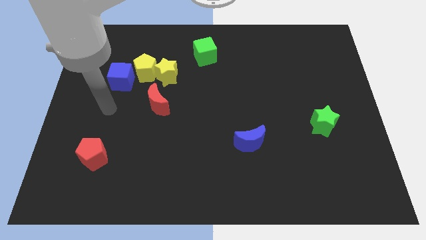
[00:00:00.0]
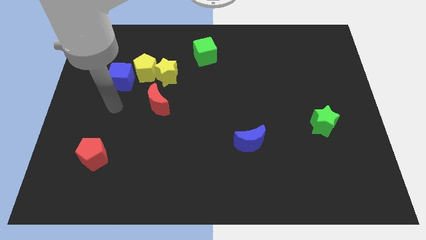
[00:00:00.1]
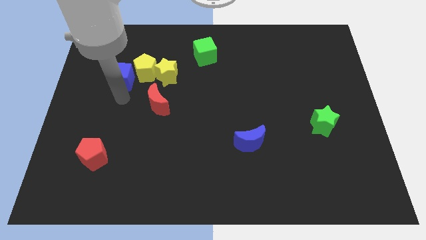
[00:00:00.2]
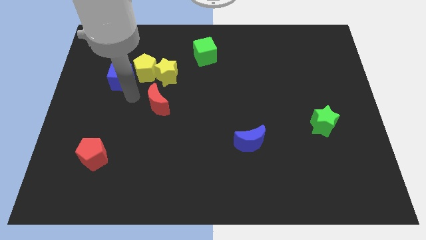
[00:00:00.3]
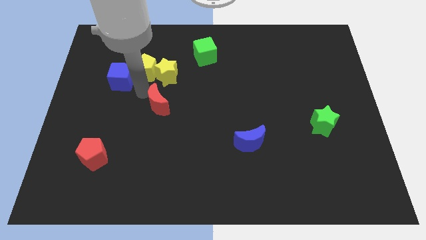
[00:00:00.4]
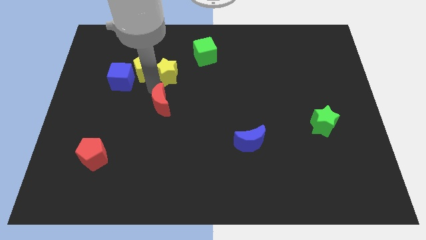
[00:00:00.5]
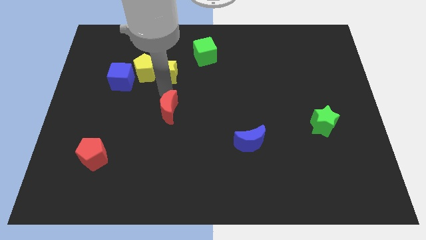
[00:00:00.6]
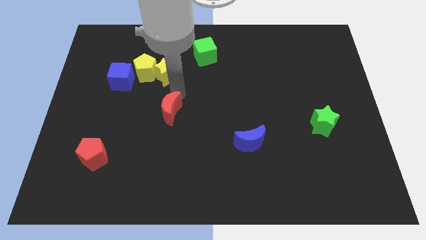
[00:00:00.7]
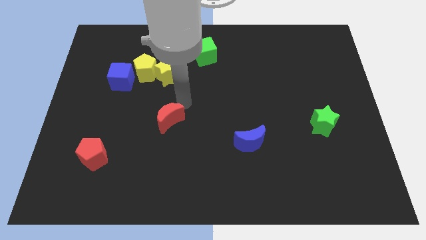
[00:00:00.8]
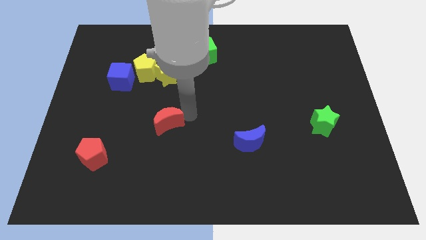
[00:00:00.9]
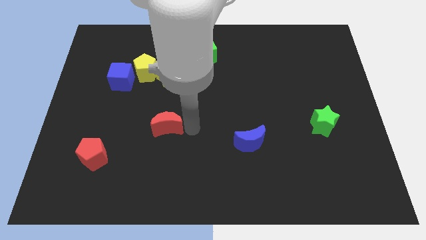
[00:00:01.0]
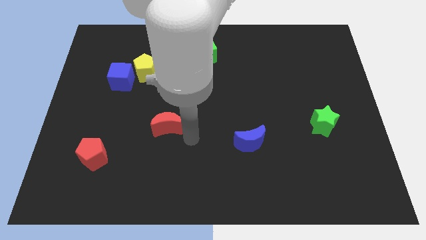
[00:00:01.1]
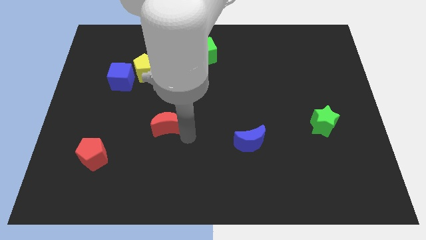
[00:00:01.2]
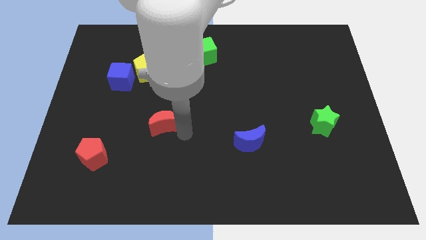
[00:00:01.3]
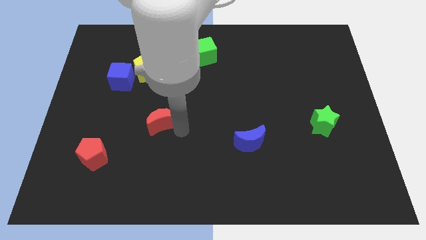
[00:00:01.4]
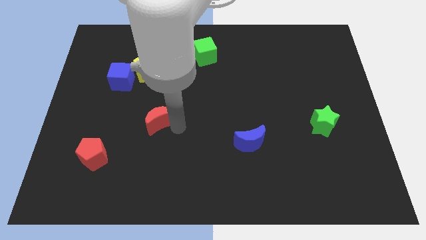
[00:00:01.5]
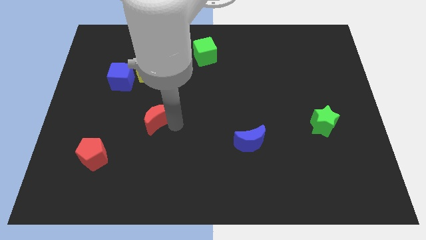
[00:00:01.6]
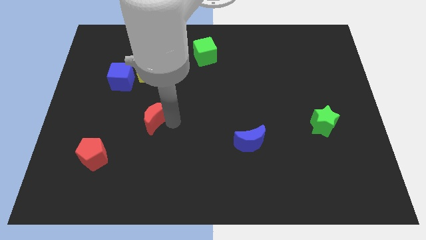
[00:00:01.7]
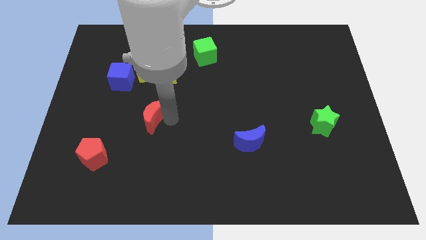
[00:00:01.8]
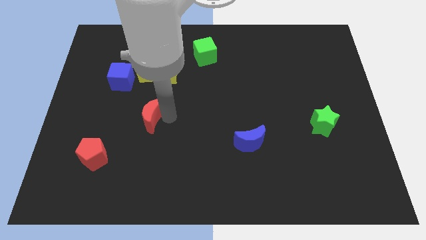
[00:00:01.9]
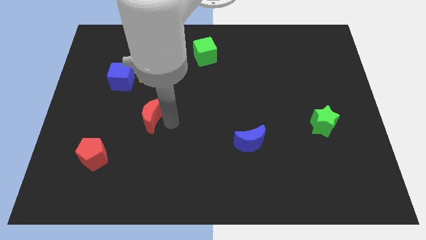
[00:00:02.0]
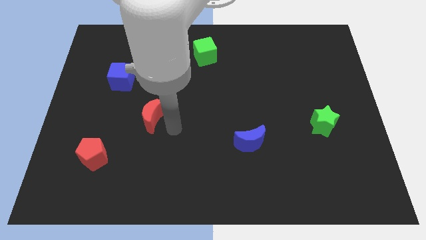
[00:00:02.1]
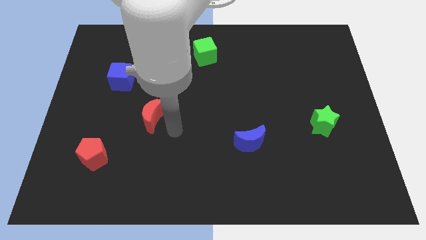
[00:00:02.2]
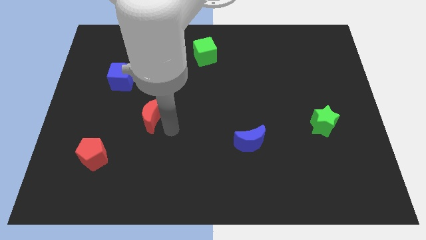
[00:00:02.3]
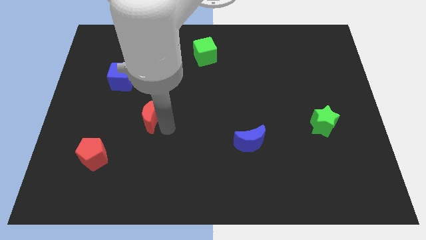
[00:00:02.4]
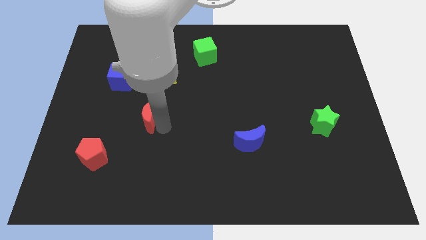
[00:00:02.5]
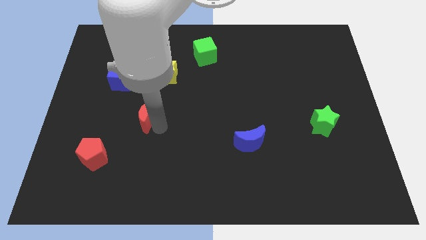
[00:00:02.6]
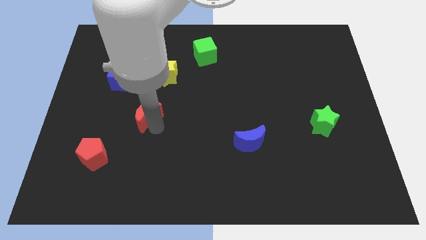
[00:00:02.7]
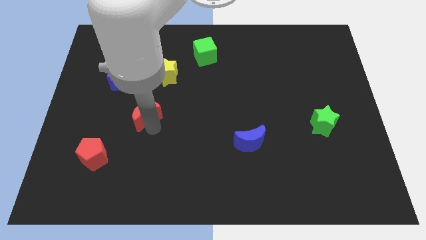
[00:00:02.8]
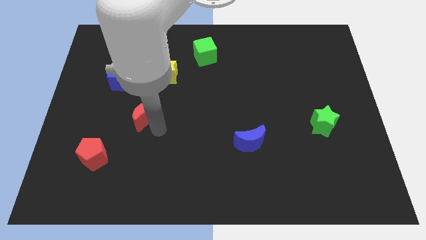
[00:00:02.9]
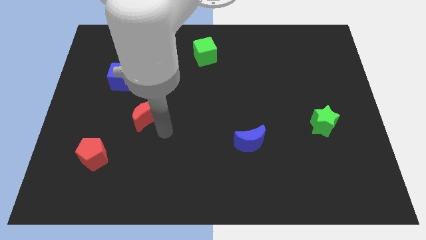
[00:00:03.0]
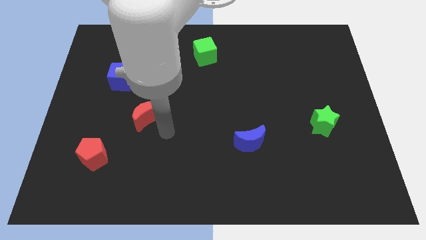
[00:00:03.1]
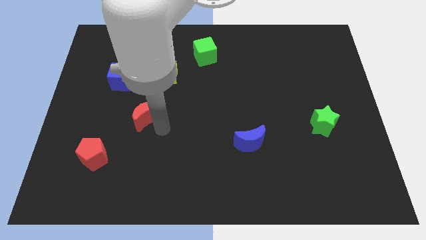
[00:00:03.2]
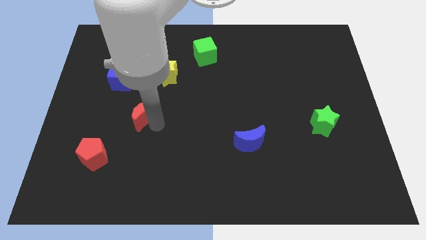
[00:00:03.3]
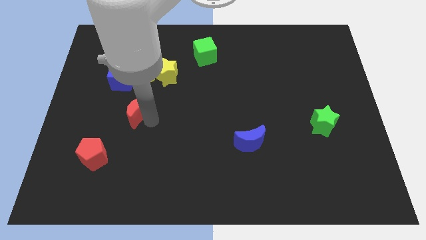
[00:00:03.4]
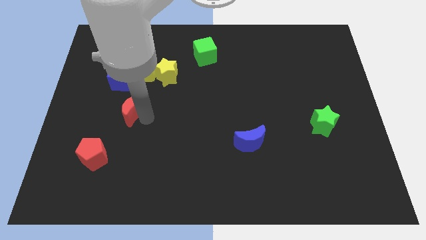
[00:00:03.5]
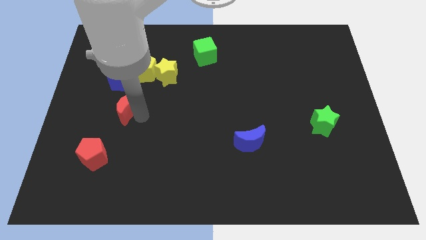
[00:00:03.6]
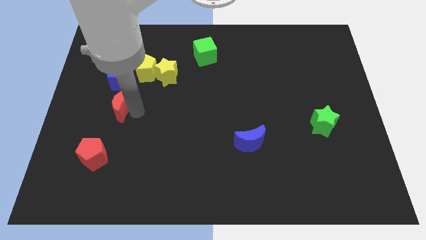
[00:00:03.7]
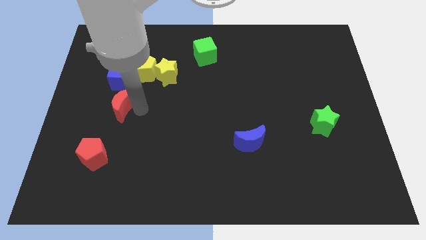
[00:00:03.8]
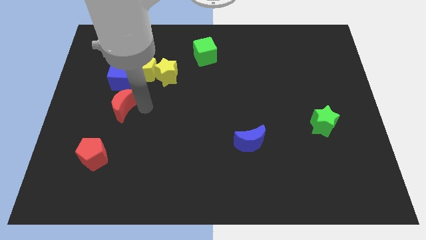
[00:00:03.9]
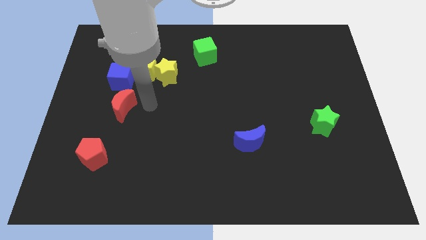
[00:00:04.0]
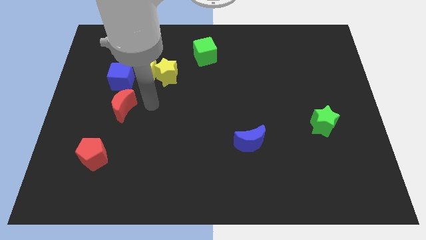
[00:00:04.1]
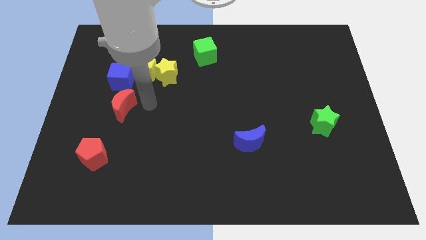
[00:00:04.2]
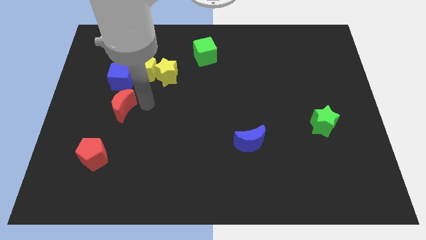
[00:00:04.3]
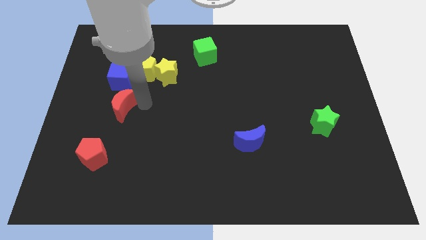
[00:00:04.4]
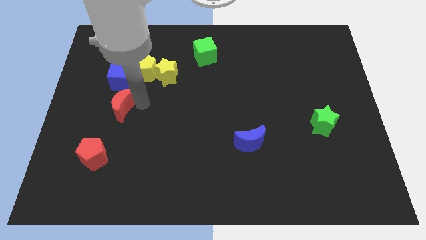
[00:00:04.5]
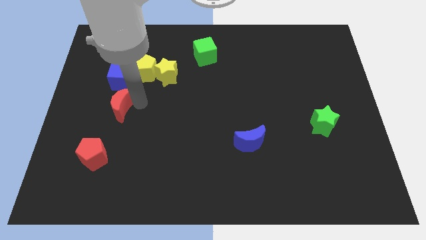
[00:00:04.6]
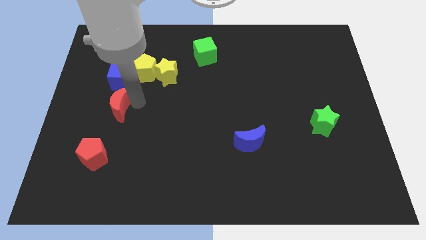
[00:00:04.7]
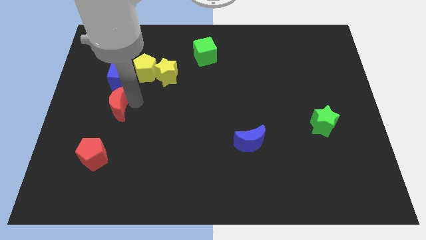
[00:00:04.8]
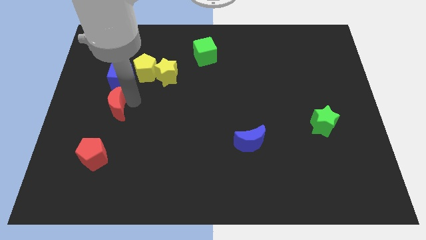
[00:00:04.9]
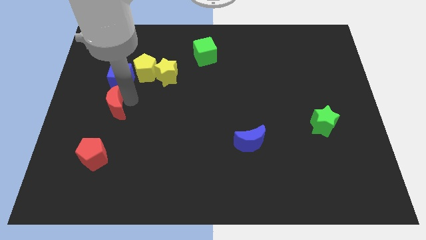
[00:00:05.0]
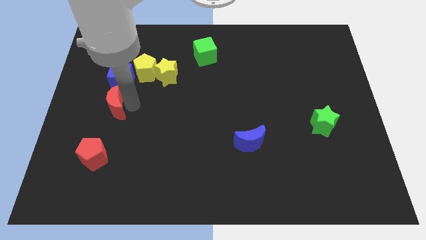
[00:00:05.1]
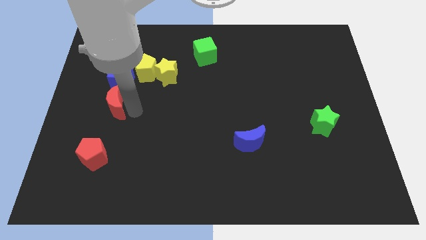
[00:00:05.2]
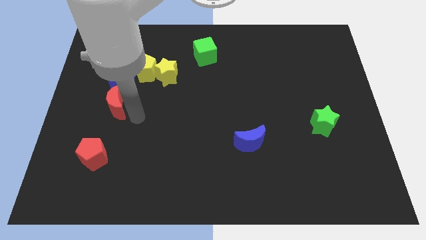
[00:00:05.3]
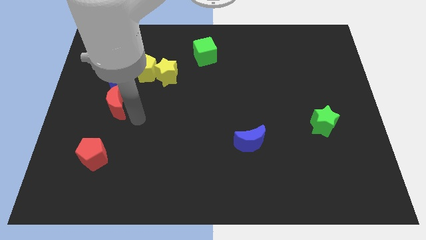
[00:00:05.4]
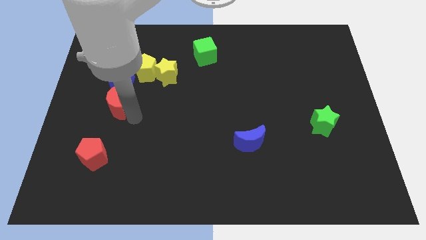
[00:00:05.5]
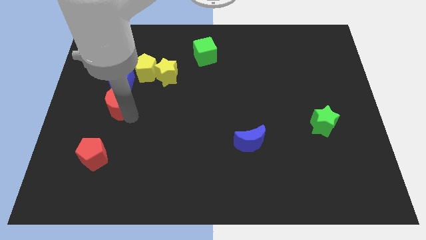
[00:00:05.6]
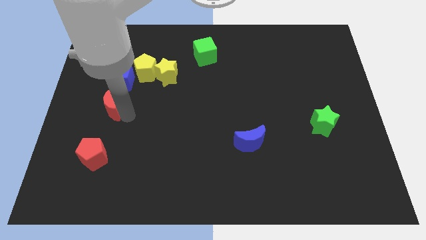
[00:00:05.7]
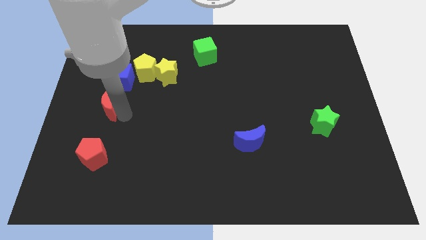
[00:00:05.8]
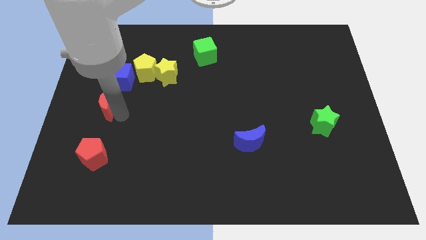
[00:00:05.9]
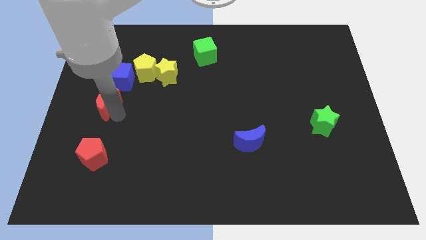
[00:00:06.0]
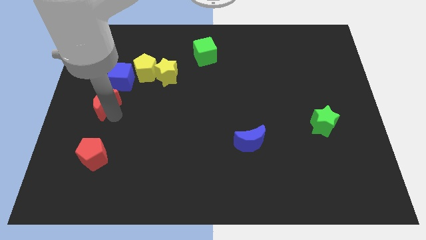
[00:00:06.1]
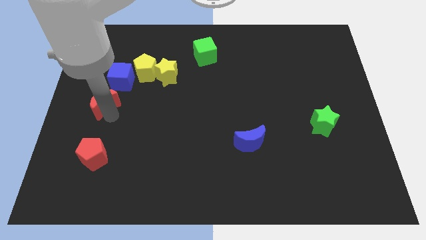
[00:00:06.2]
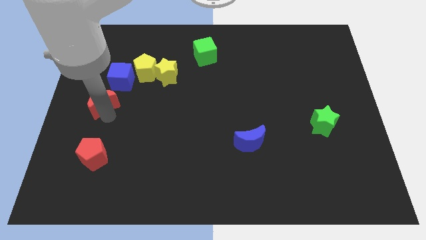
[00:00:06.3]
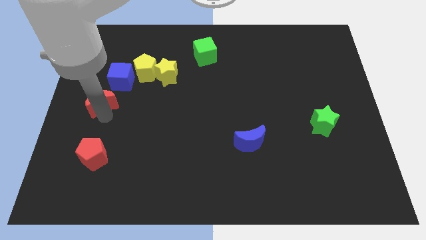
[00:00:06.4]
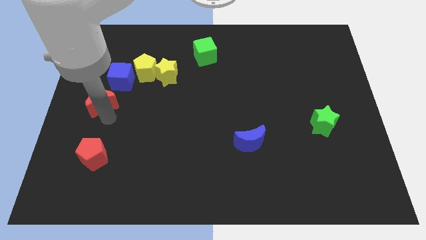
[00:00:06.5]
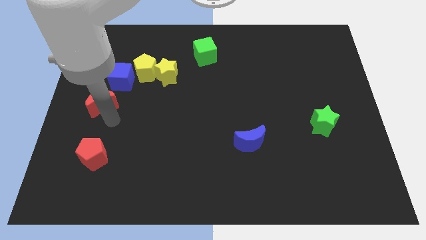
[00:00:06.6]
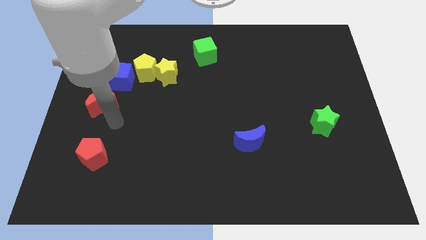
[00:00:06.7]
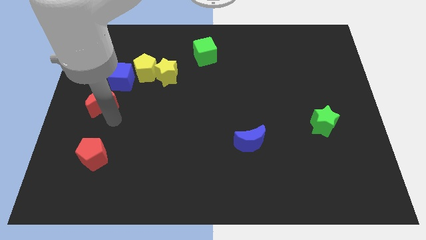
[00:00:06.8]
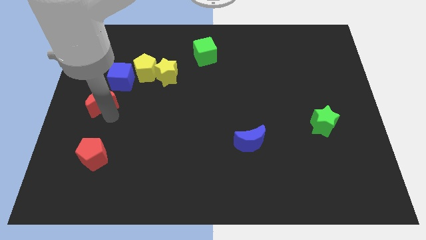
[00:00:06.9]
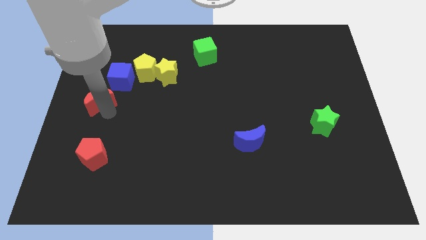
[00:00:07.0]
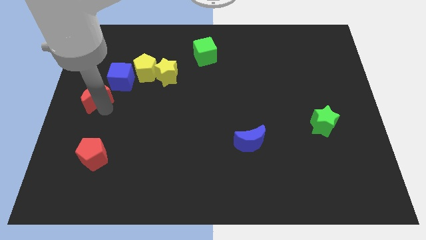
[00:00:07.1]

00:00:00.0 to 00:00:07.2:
push the red moon diagonally up and to the left a little

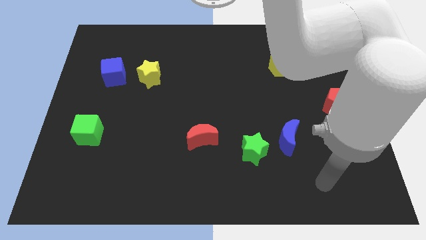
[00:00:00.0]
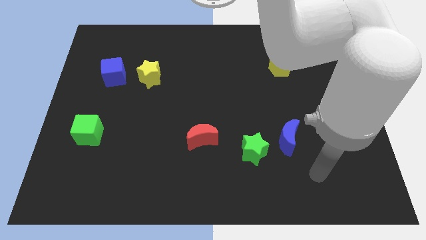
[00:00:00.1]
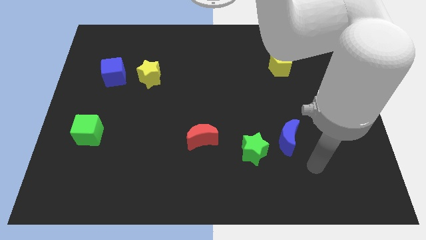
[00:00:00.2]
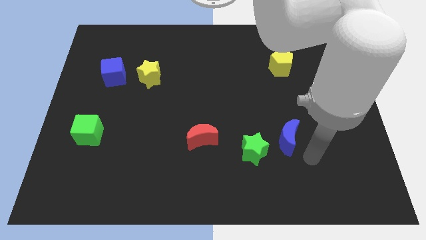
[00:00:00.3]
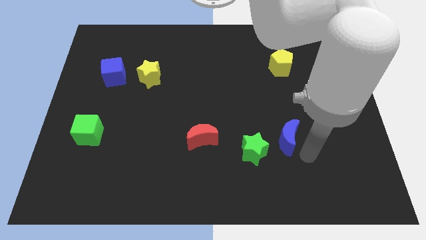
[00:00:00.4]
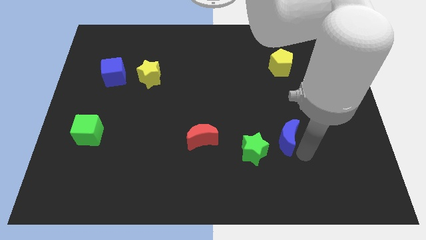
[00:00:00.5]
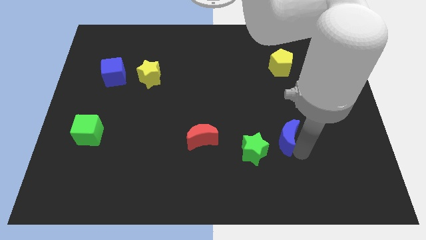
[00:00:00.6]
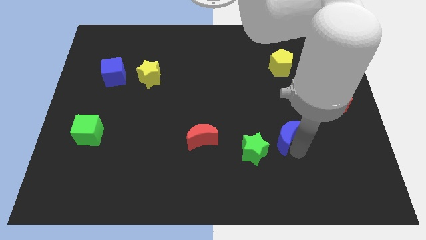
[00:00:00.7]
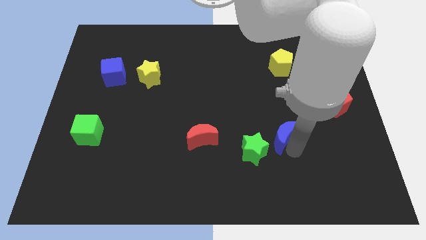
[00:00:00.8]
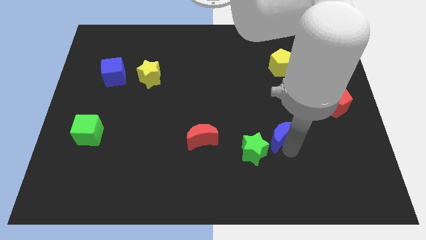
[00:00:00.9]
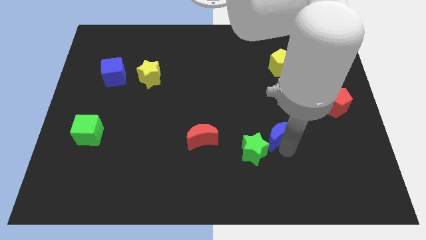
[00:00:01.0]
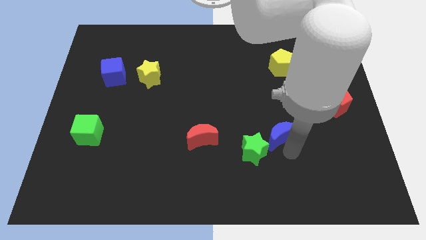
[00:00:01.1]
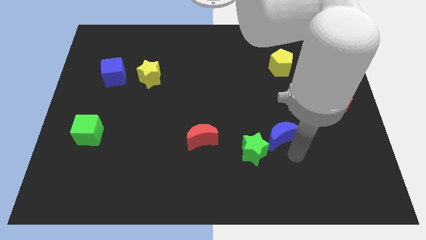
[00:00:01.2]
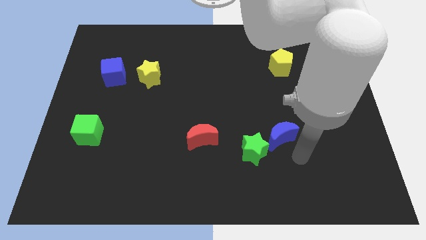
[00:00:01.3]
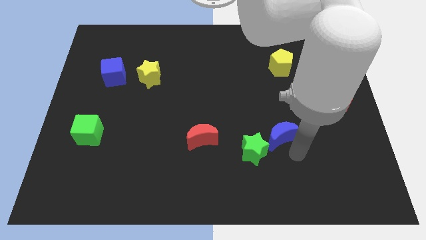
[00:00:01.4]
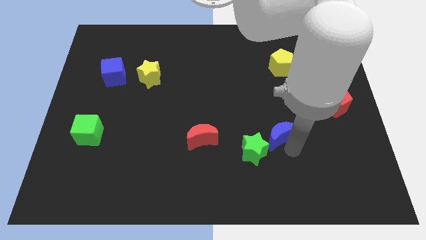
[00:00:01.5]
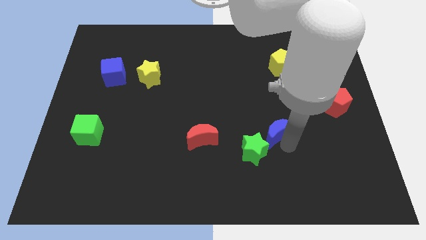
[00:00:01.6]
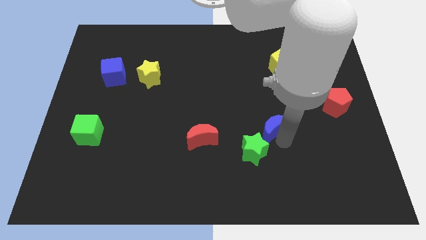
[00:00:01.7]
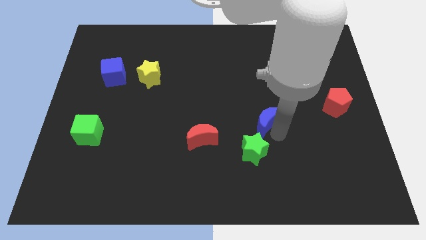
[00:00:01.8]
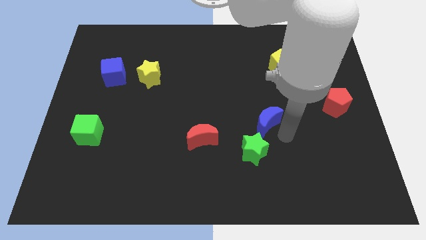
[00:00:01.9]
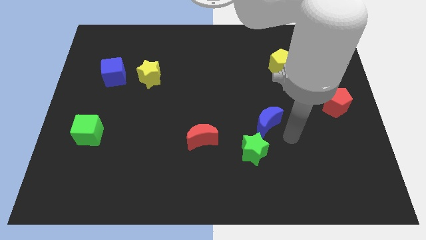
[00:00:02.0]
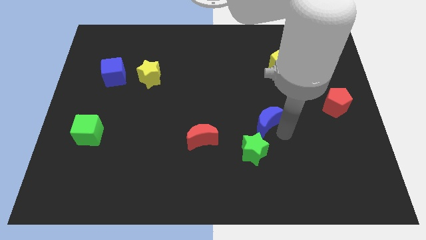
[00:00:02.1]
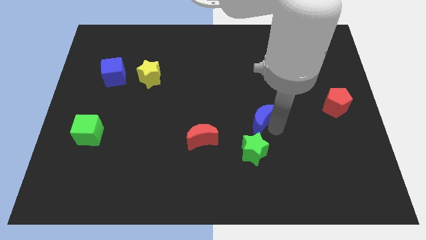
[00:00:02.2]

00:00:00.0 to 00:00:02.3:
push the blue moon somewhat upwards and left diagonally
